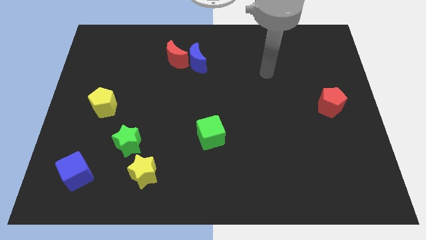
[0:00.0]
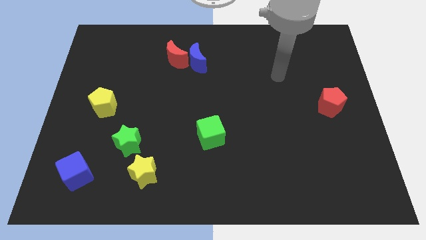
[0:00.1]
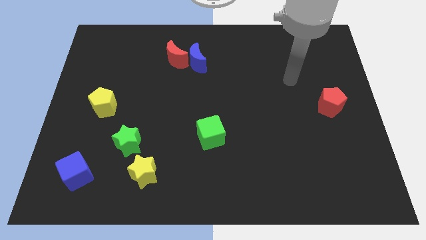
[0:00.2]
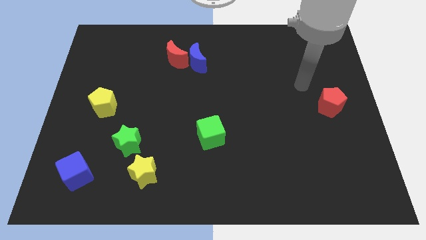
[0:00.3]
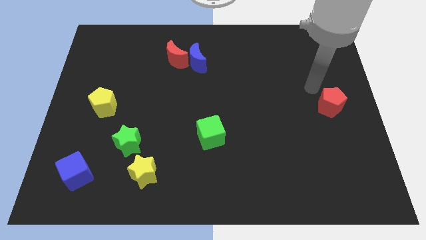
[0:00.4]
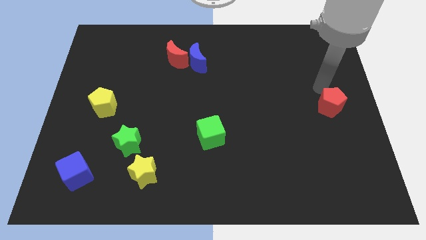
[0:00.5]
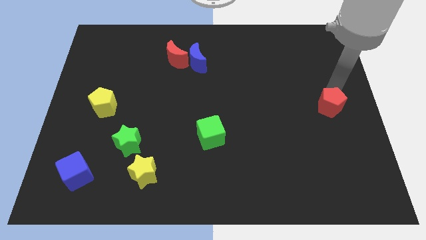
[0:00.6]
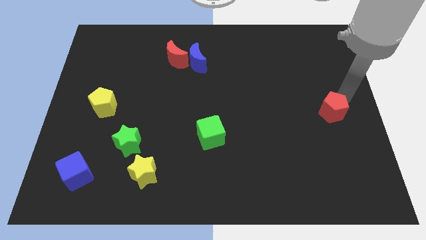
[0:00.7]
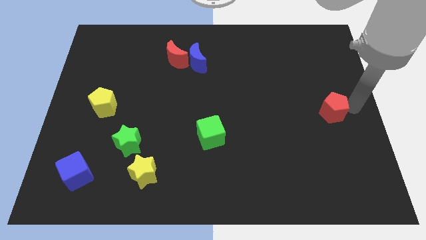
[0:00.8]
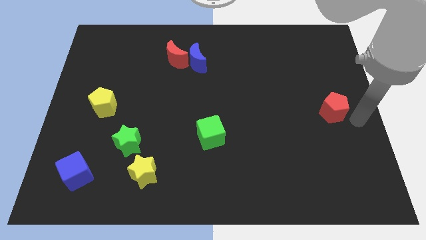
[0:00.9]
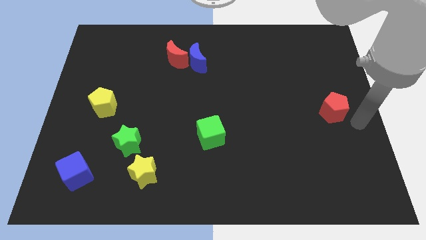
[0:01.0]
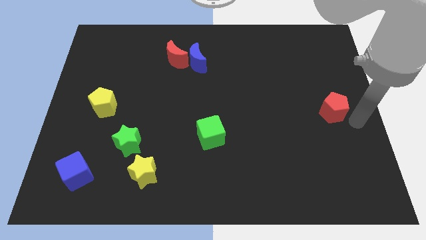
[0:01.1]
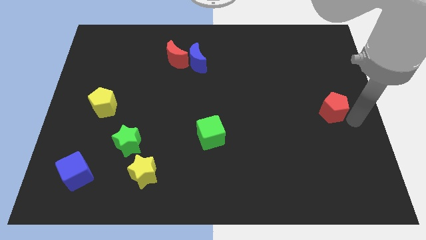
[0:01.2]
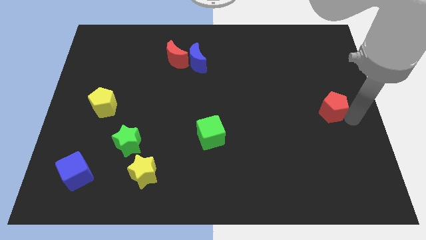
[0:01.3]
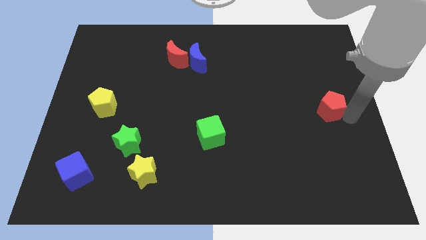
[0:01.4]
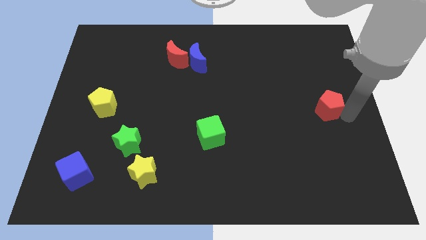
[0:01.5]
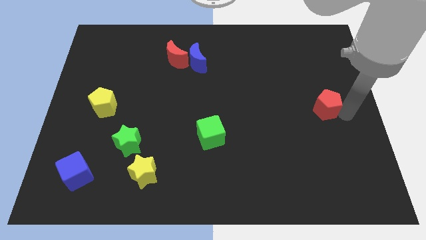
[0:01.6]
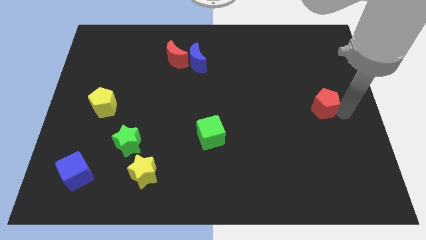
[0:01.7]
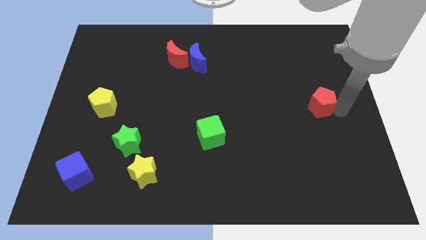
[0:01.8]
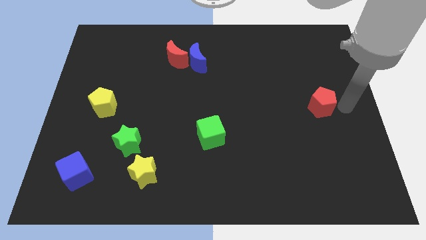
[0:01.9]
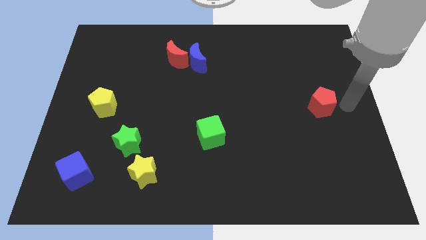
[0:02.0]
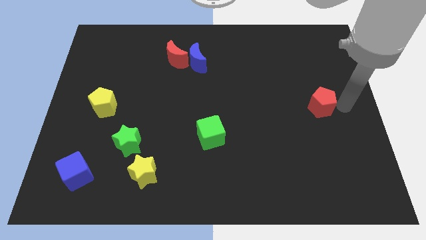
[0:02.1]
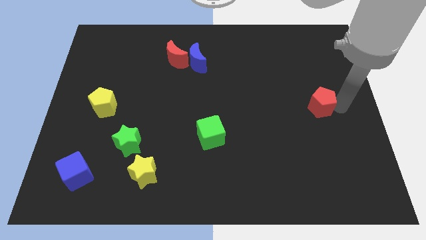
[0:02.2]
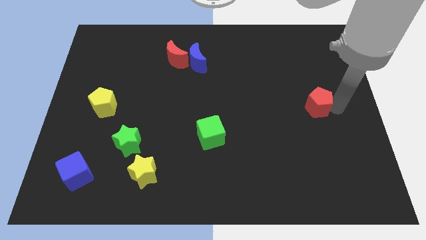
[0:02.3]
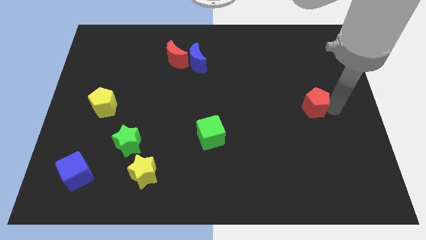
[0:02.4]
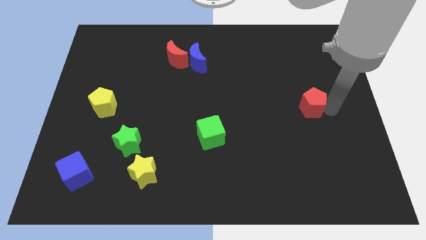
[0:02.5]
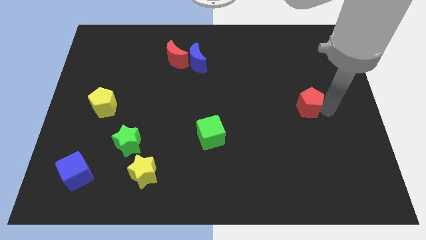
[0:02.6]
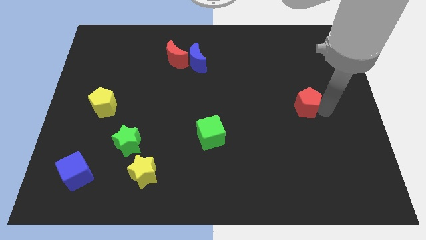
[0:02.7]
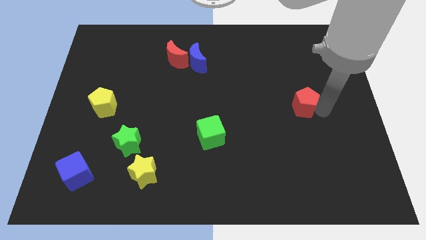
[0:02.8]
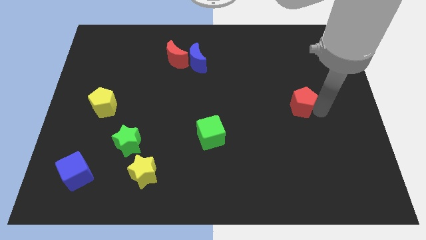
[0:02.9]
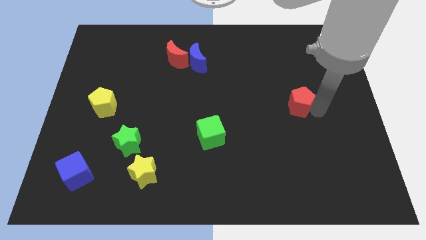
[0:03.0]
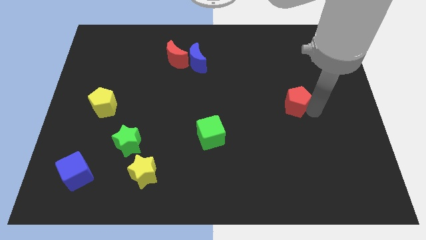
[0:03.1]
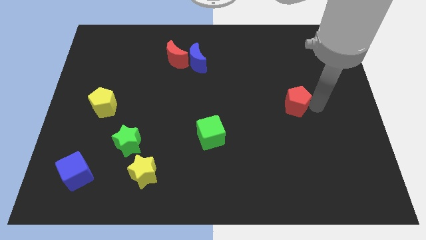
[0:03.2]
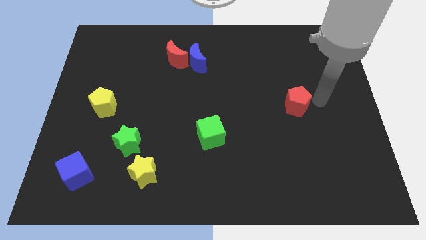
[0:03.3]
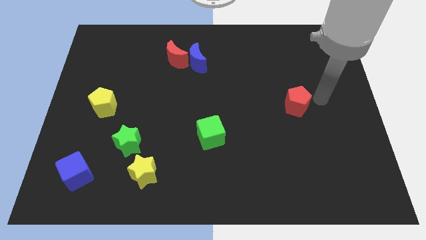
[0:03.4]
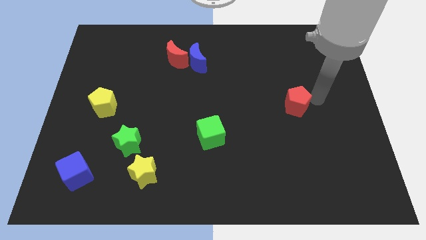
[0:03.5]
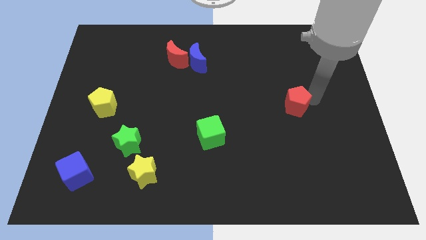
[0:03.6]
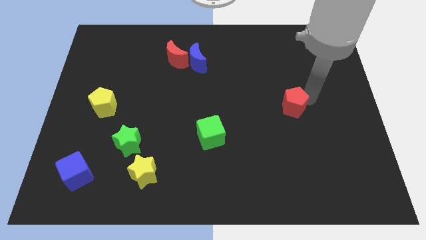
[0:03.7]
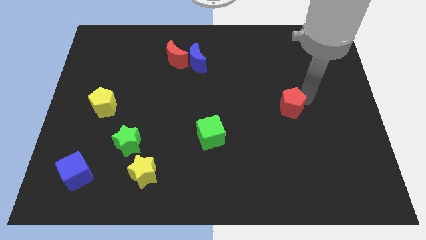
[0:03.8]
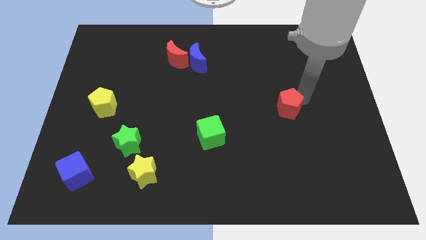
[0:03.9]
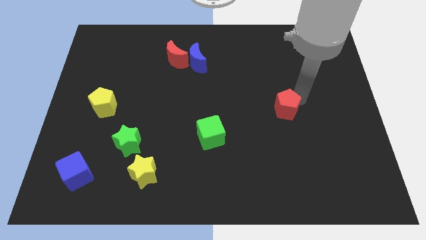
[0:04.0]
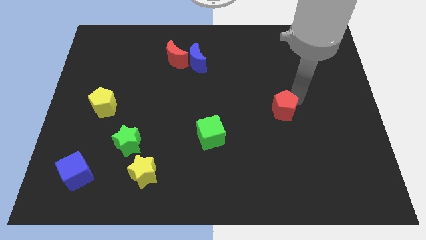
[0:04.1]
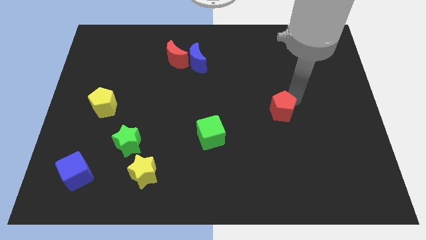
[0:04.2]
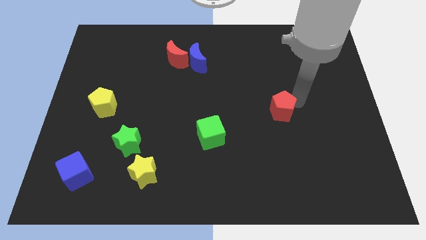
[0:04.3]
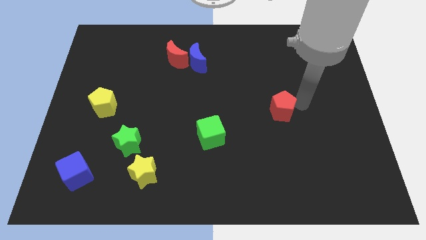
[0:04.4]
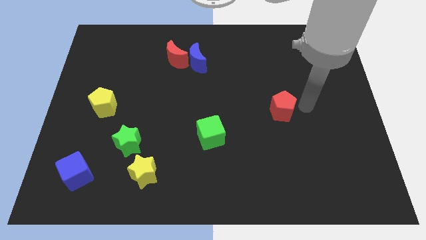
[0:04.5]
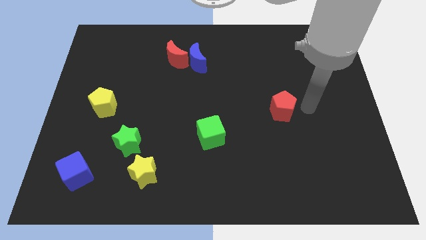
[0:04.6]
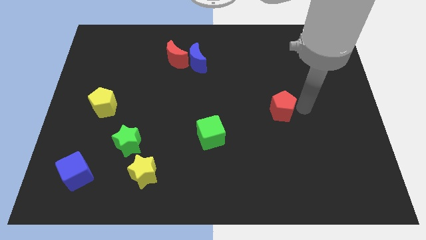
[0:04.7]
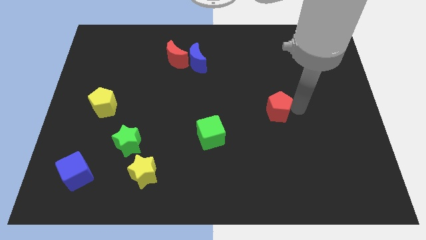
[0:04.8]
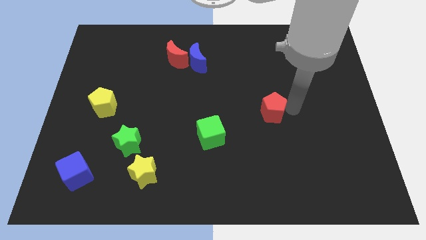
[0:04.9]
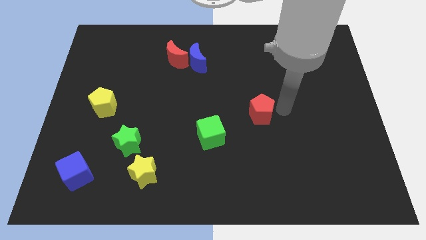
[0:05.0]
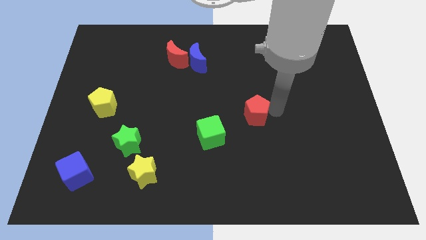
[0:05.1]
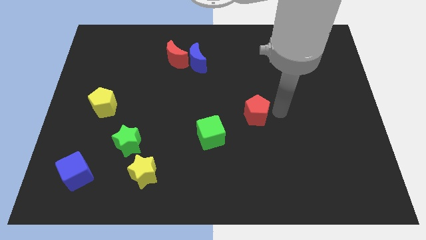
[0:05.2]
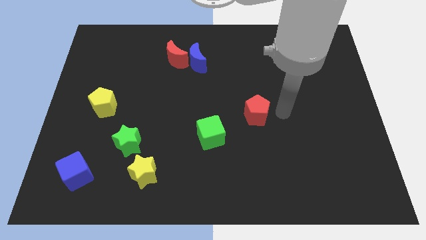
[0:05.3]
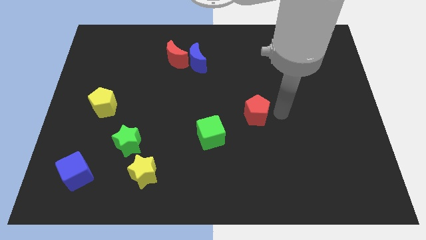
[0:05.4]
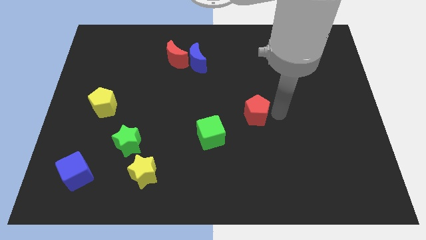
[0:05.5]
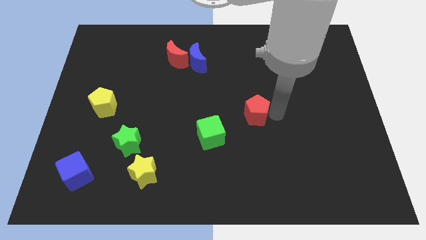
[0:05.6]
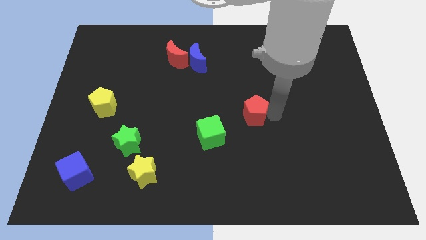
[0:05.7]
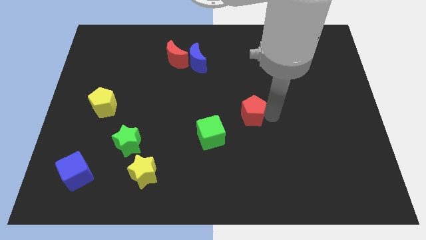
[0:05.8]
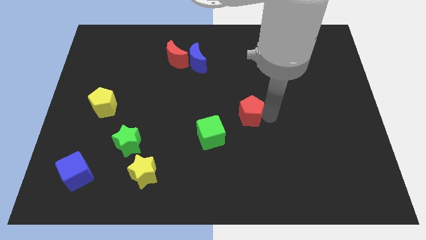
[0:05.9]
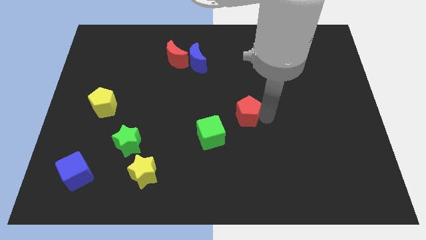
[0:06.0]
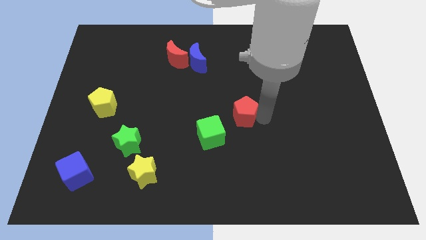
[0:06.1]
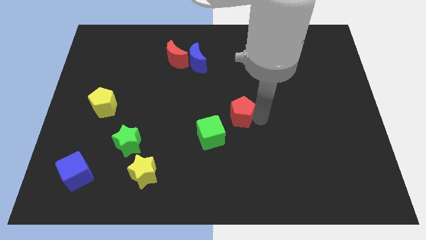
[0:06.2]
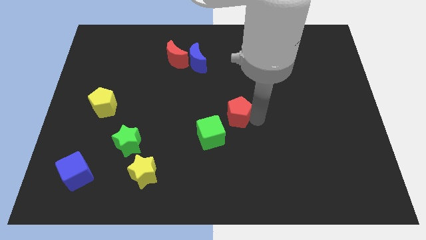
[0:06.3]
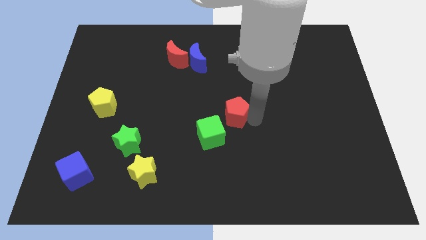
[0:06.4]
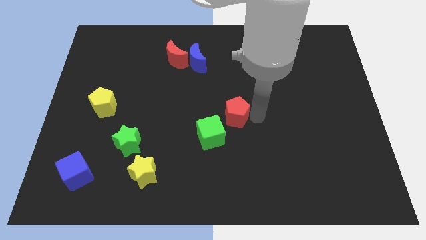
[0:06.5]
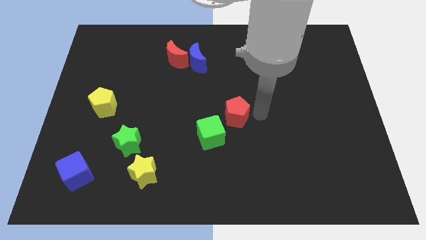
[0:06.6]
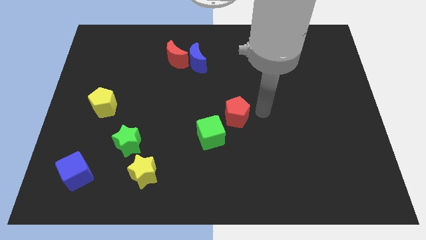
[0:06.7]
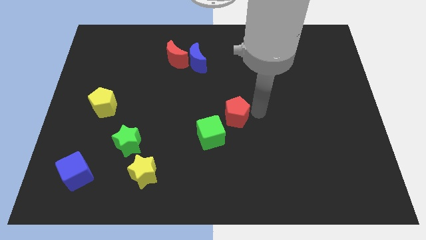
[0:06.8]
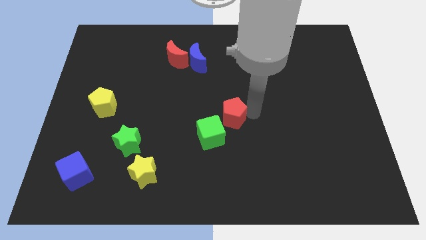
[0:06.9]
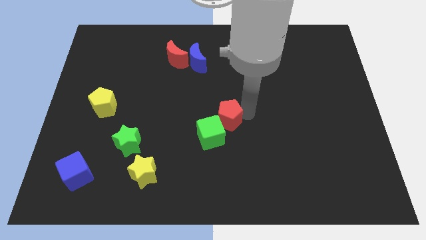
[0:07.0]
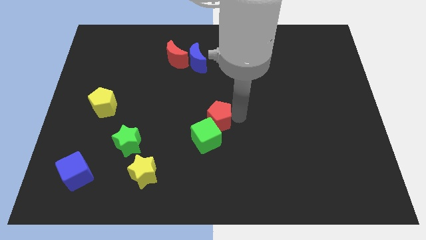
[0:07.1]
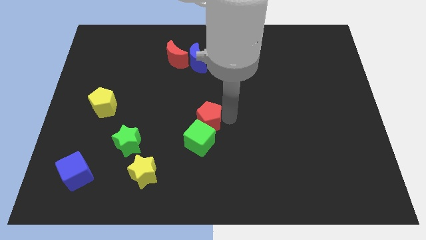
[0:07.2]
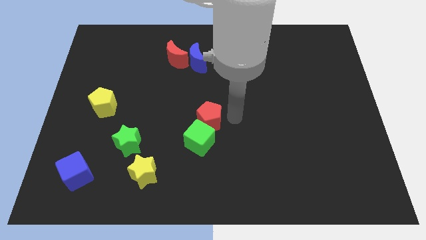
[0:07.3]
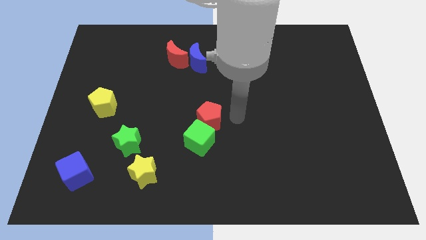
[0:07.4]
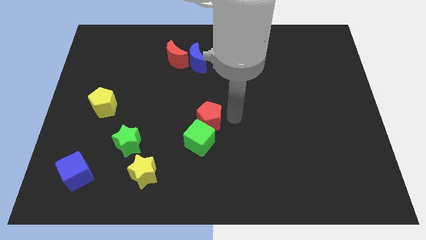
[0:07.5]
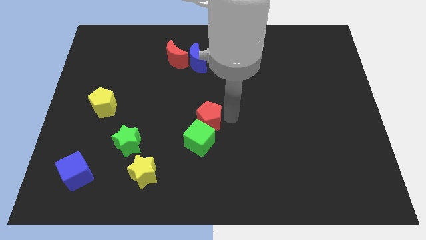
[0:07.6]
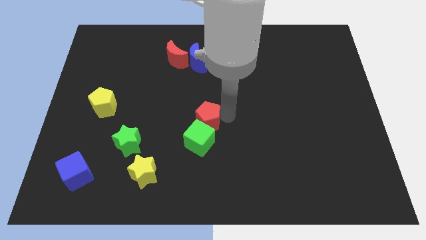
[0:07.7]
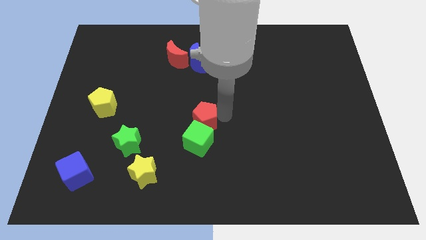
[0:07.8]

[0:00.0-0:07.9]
put the red pentagon to the top left side of the green cube
